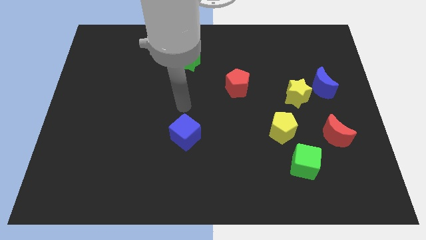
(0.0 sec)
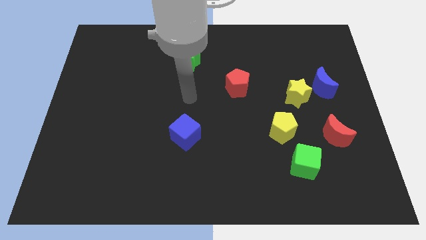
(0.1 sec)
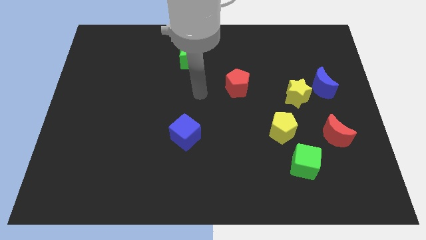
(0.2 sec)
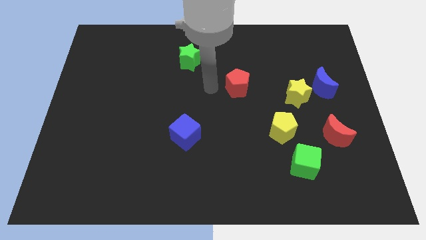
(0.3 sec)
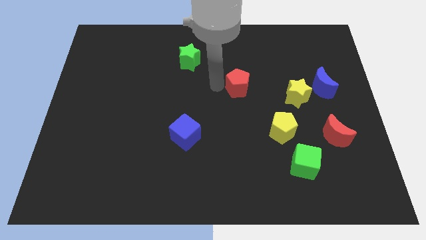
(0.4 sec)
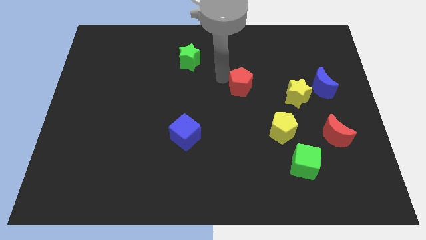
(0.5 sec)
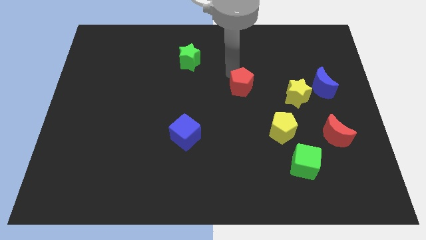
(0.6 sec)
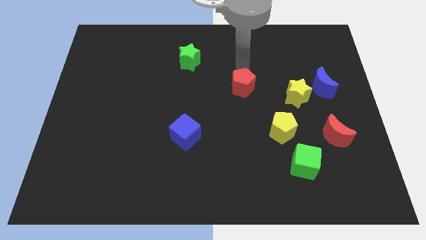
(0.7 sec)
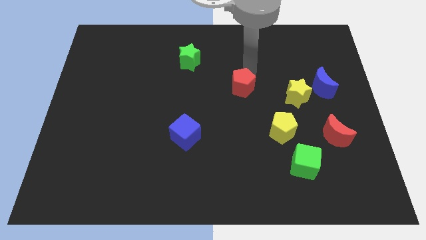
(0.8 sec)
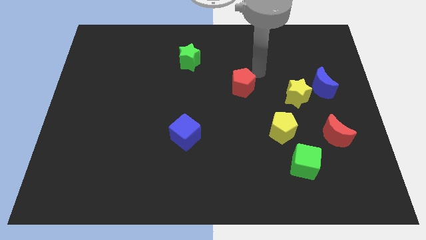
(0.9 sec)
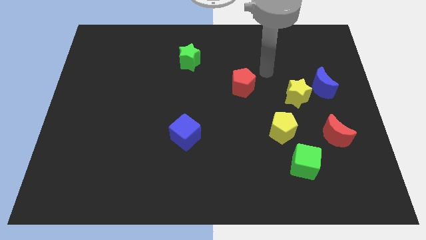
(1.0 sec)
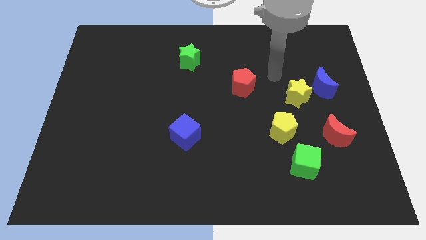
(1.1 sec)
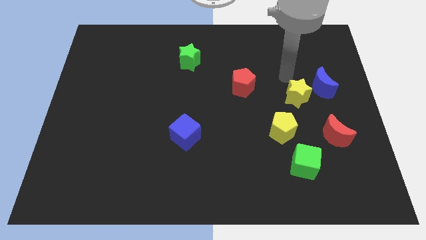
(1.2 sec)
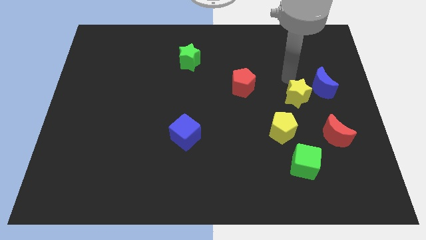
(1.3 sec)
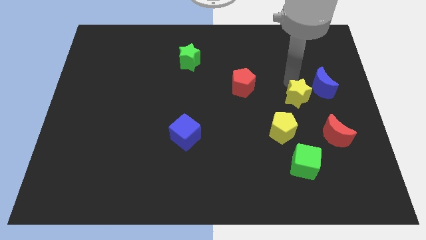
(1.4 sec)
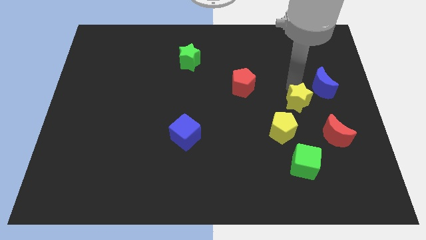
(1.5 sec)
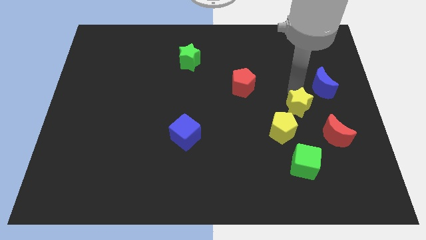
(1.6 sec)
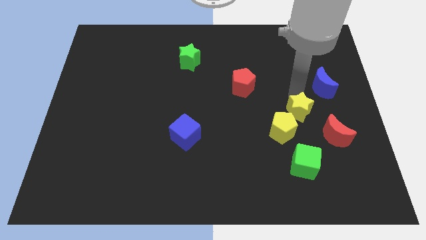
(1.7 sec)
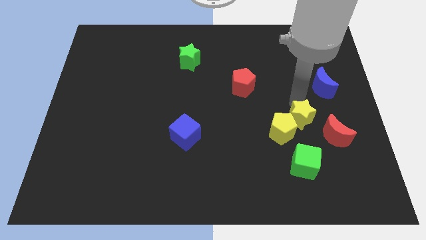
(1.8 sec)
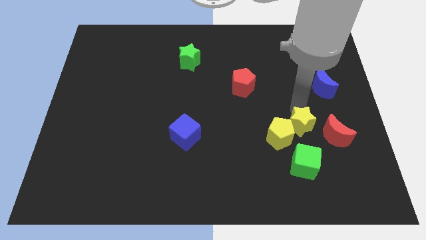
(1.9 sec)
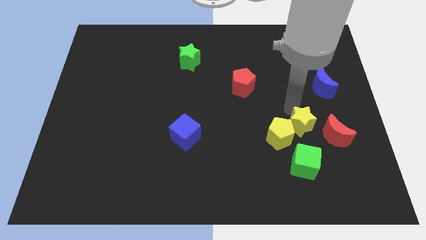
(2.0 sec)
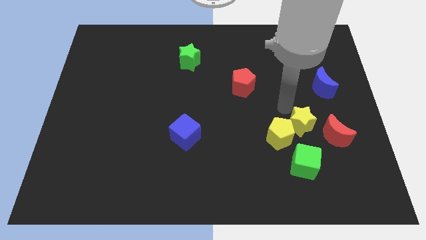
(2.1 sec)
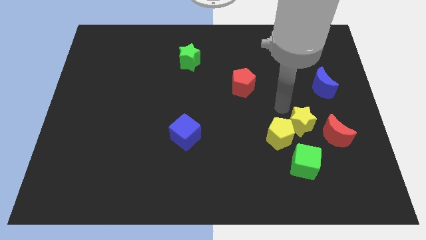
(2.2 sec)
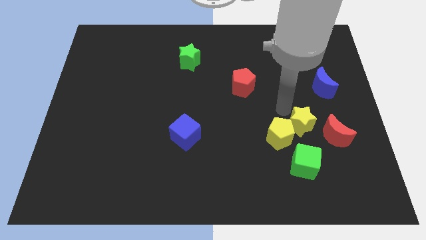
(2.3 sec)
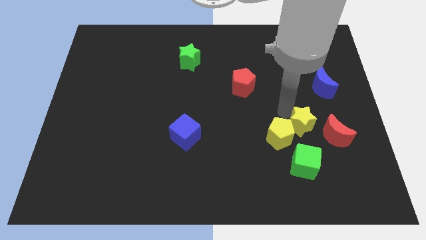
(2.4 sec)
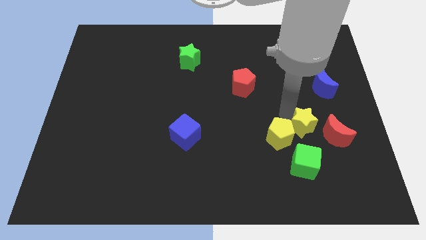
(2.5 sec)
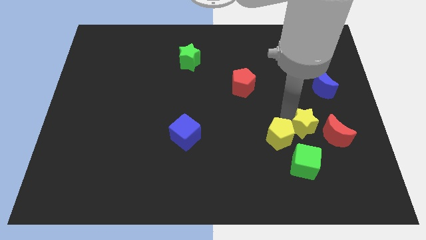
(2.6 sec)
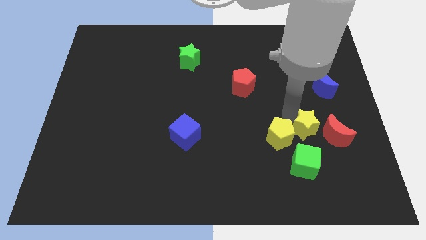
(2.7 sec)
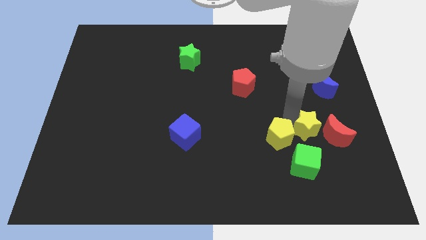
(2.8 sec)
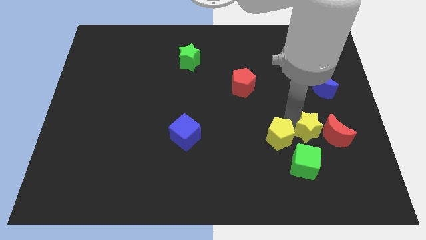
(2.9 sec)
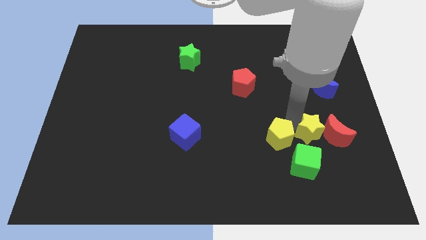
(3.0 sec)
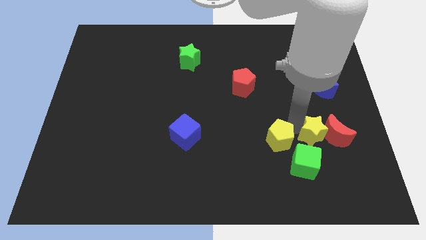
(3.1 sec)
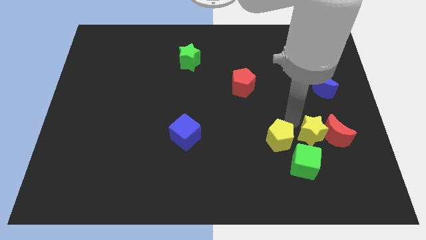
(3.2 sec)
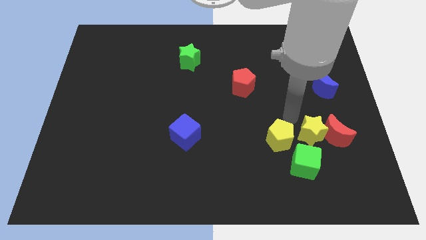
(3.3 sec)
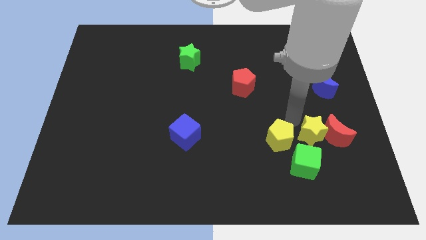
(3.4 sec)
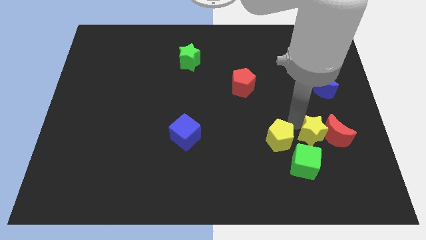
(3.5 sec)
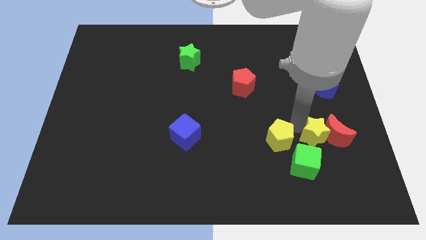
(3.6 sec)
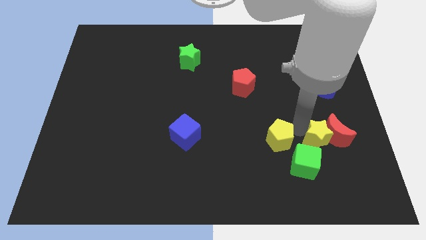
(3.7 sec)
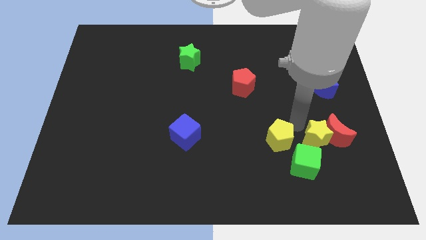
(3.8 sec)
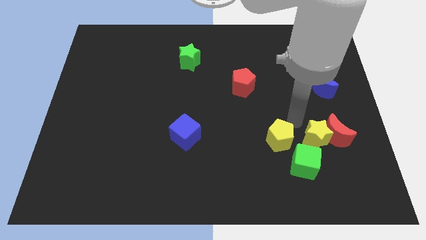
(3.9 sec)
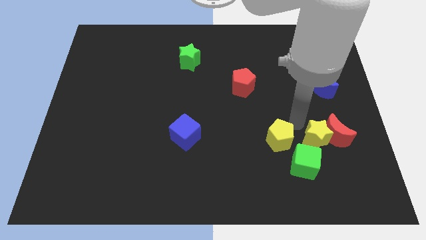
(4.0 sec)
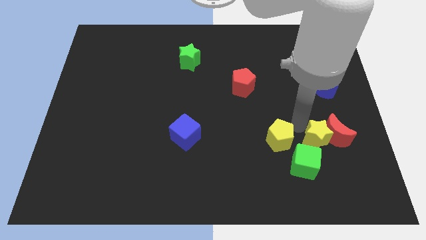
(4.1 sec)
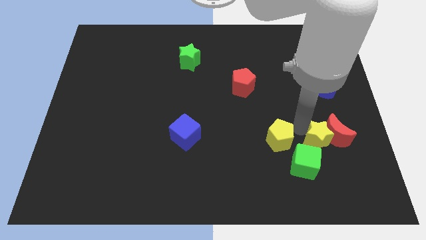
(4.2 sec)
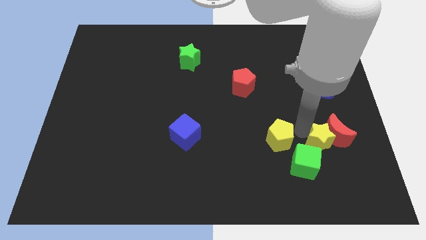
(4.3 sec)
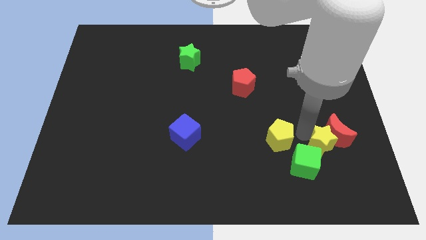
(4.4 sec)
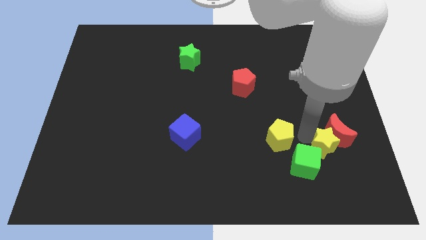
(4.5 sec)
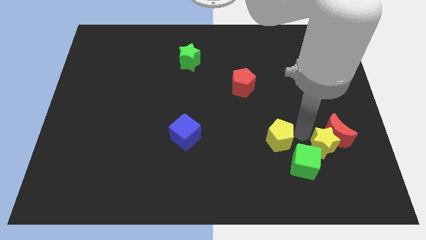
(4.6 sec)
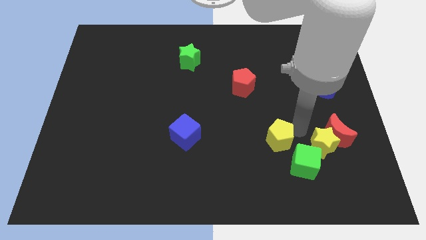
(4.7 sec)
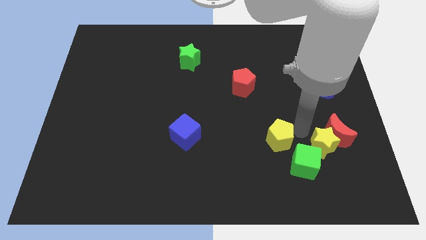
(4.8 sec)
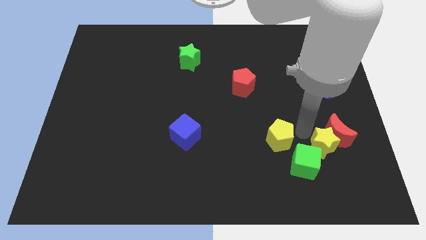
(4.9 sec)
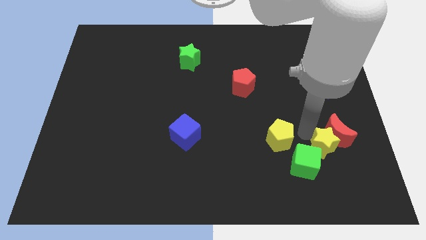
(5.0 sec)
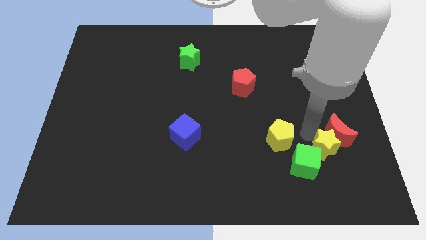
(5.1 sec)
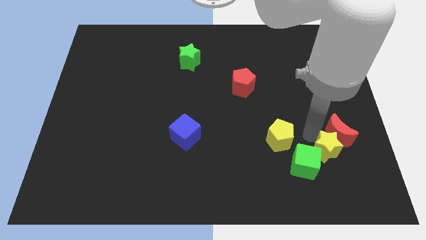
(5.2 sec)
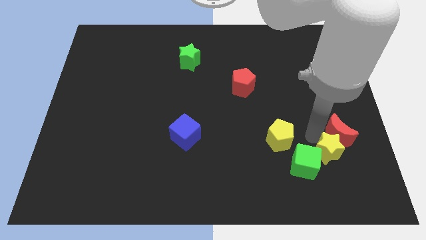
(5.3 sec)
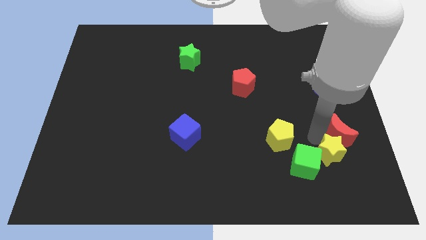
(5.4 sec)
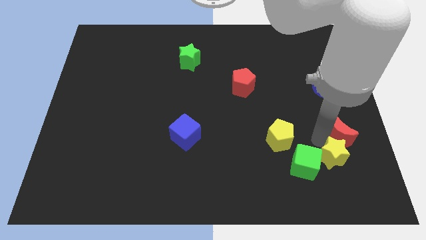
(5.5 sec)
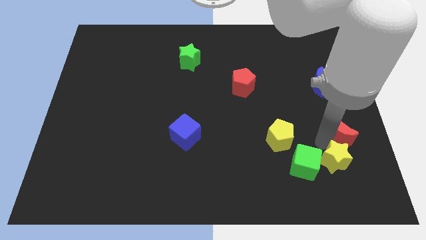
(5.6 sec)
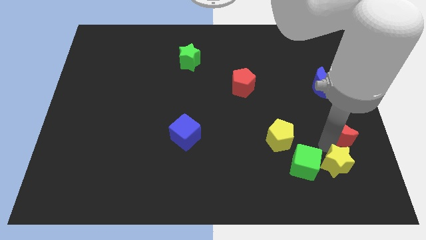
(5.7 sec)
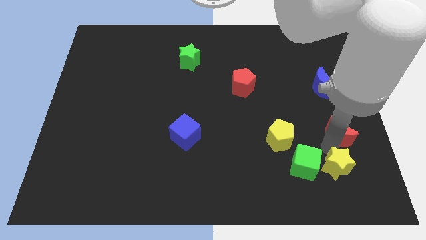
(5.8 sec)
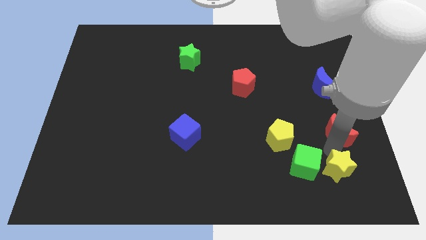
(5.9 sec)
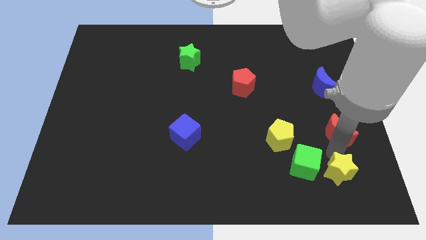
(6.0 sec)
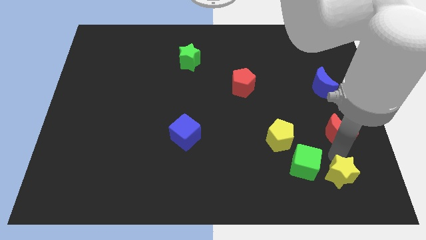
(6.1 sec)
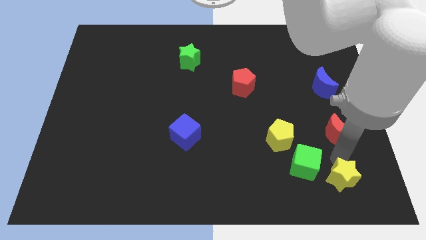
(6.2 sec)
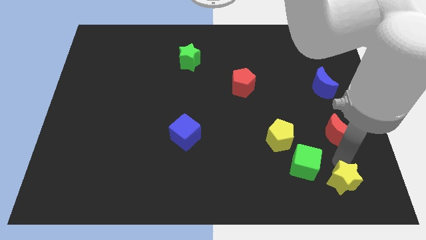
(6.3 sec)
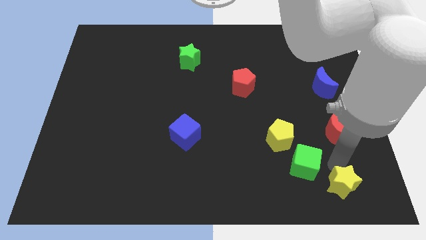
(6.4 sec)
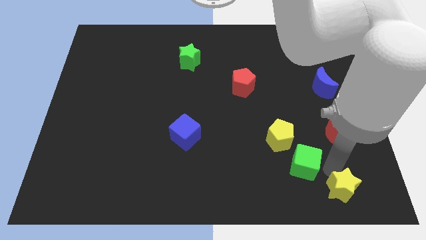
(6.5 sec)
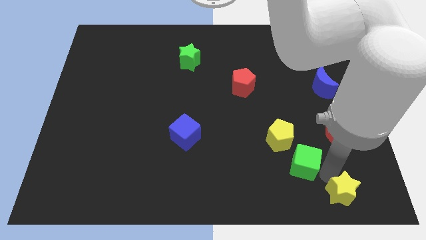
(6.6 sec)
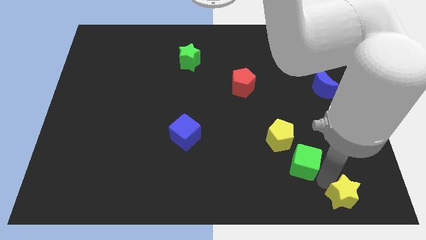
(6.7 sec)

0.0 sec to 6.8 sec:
move the yellow star to the lower right corner

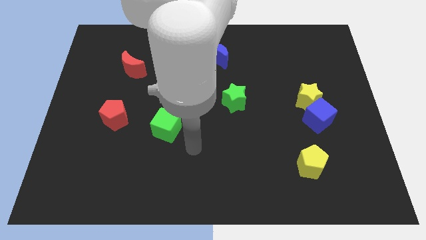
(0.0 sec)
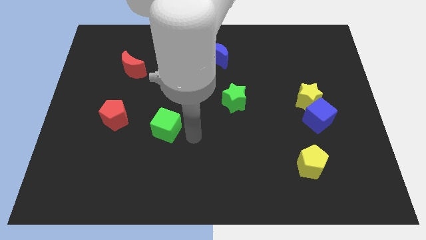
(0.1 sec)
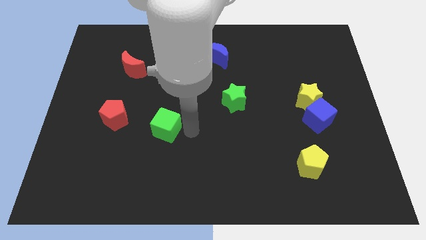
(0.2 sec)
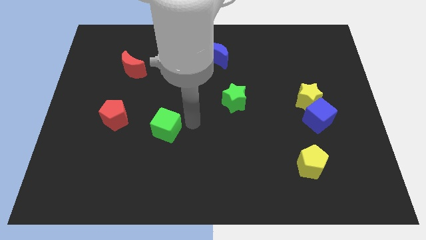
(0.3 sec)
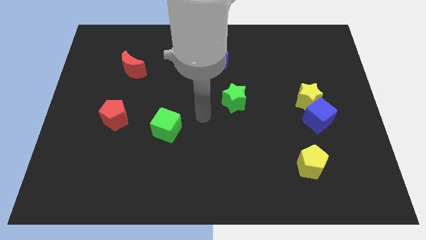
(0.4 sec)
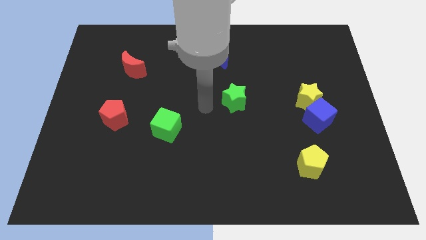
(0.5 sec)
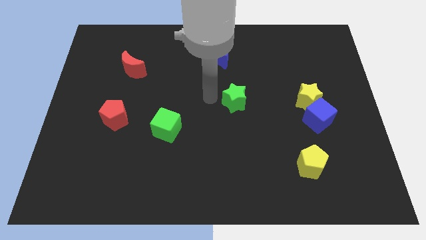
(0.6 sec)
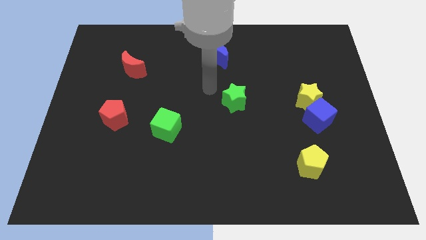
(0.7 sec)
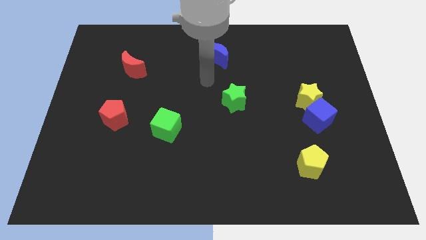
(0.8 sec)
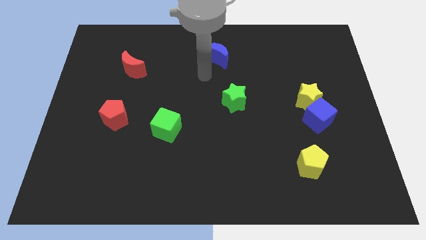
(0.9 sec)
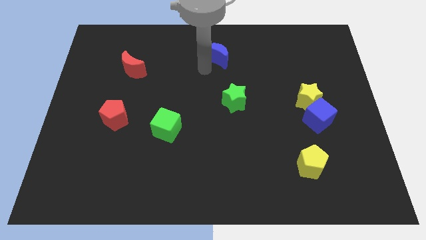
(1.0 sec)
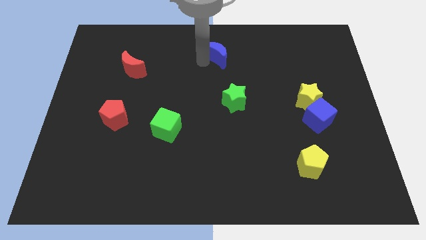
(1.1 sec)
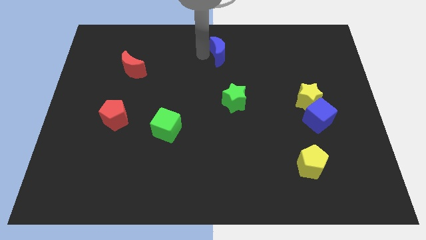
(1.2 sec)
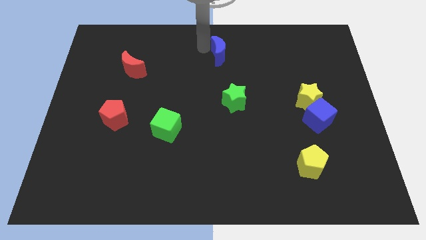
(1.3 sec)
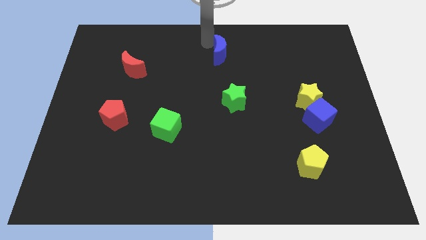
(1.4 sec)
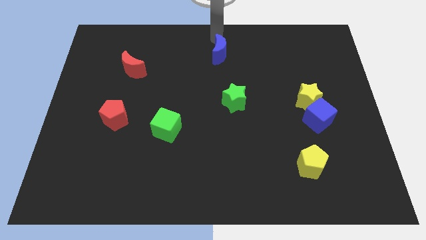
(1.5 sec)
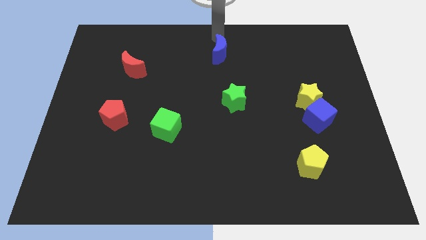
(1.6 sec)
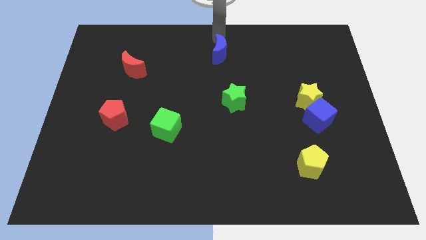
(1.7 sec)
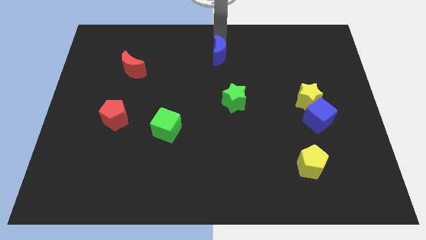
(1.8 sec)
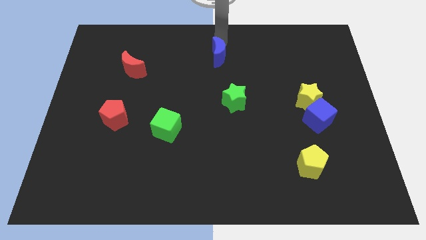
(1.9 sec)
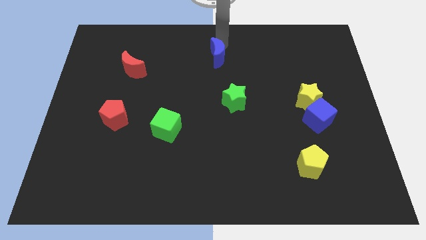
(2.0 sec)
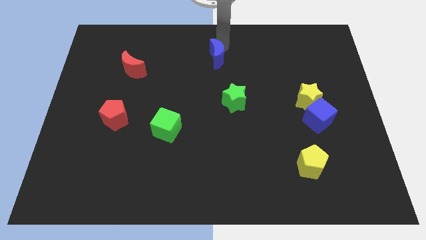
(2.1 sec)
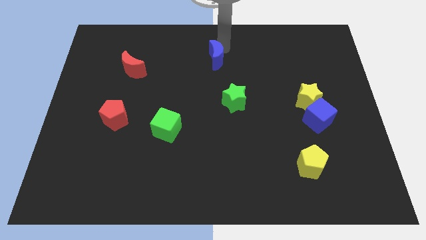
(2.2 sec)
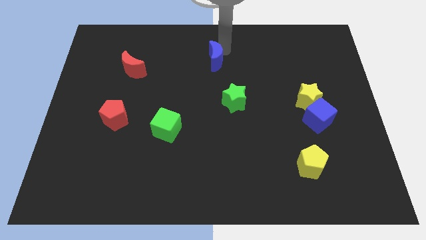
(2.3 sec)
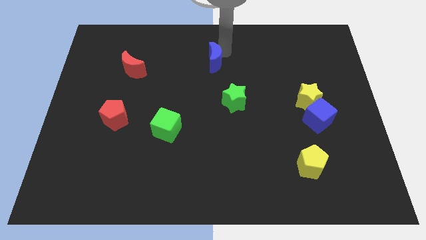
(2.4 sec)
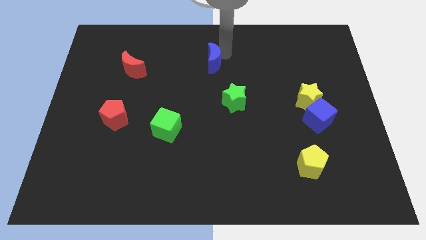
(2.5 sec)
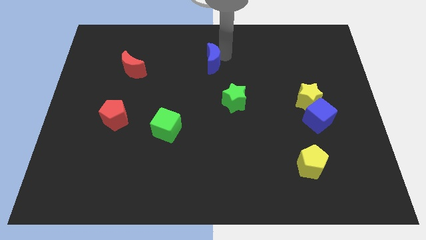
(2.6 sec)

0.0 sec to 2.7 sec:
push the blue moon to the middle
